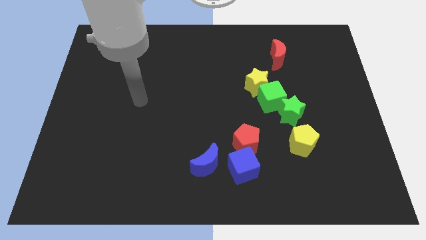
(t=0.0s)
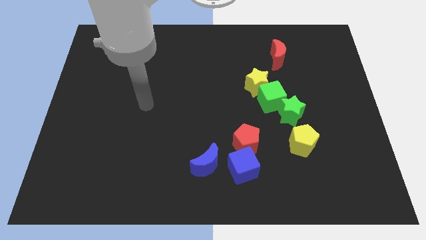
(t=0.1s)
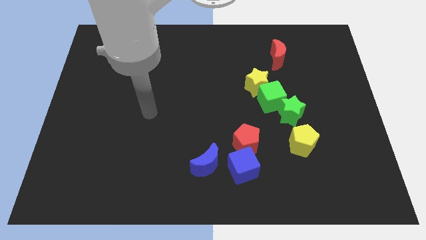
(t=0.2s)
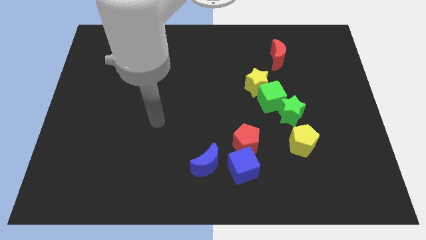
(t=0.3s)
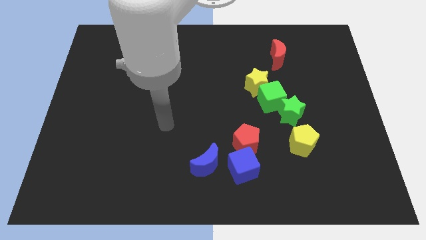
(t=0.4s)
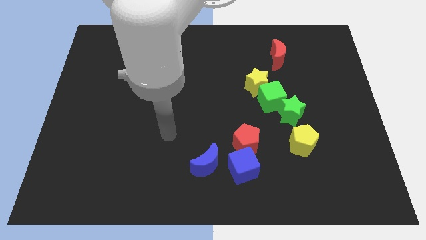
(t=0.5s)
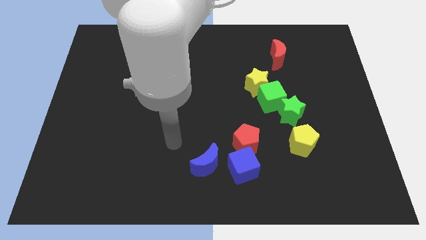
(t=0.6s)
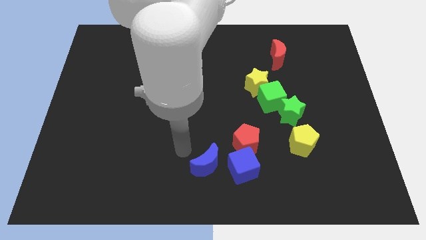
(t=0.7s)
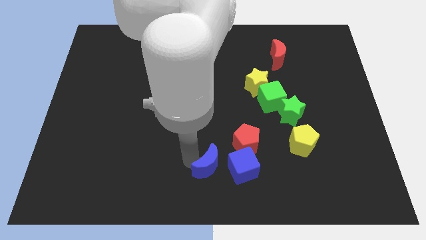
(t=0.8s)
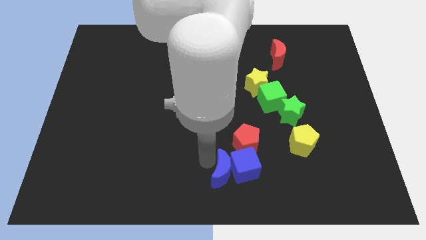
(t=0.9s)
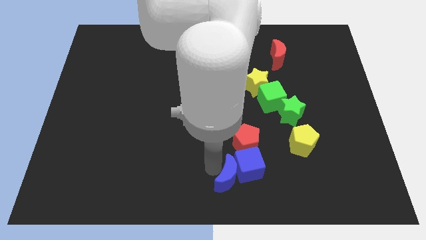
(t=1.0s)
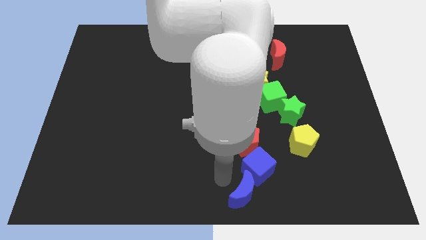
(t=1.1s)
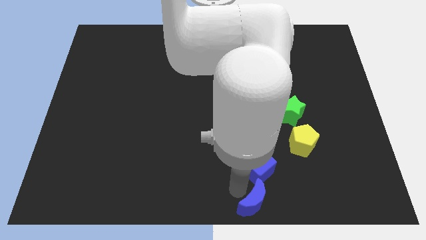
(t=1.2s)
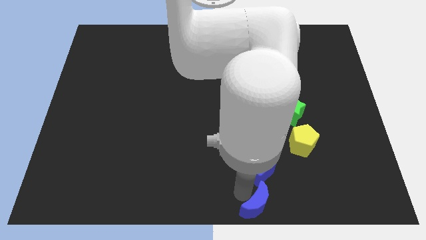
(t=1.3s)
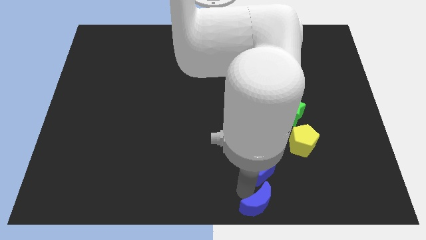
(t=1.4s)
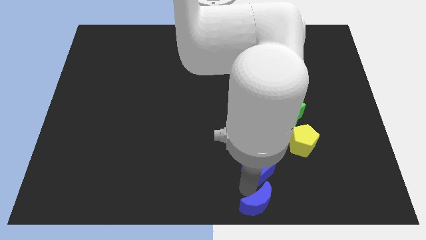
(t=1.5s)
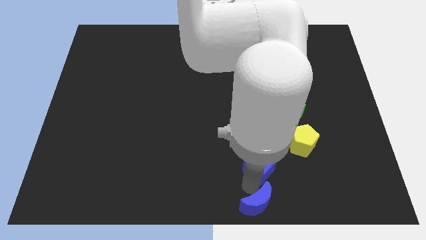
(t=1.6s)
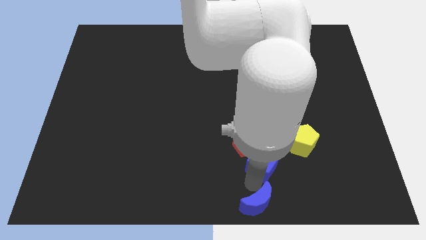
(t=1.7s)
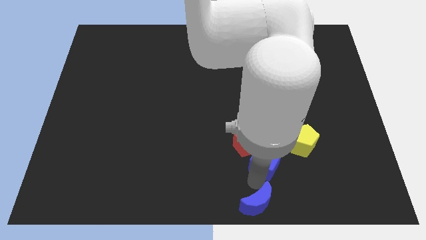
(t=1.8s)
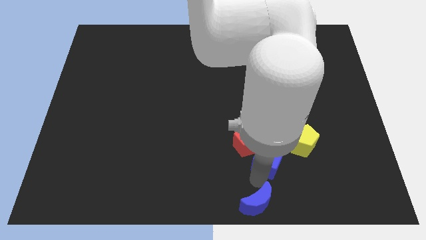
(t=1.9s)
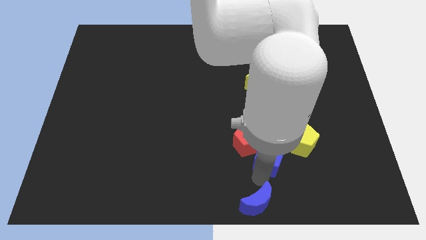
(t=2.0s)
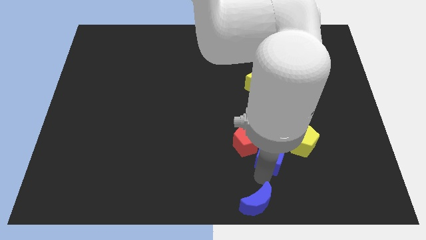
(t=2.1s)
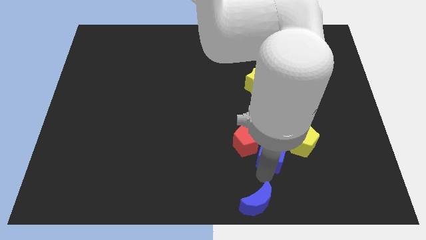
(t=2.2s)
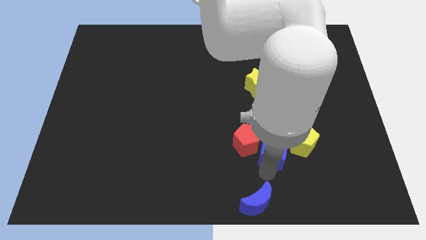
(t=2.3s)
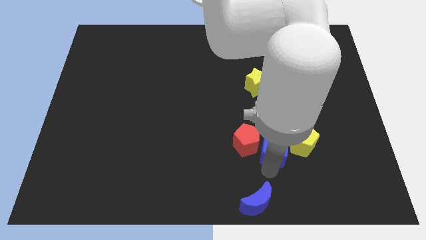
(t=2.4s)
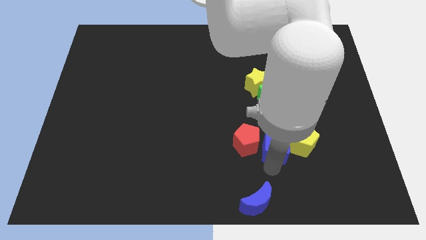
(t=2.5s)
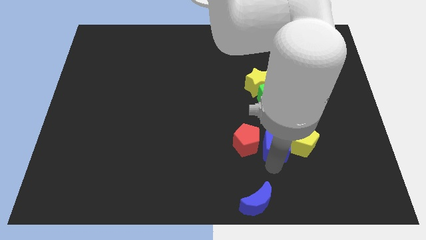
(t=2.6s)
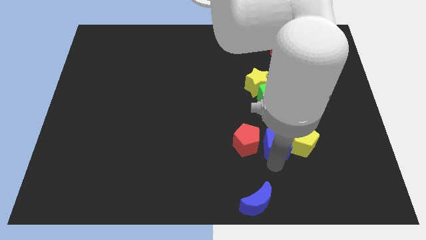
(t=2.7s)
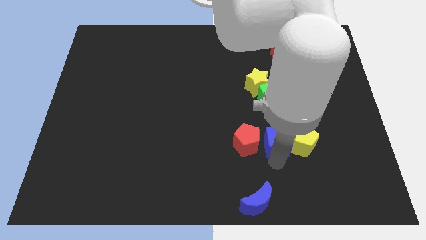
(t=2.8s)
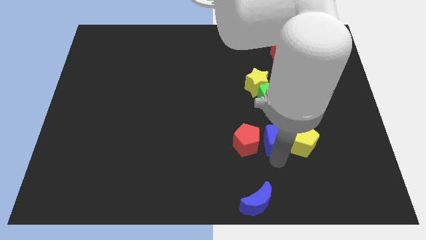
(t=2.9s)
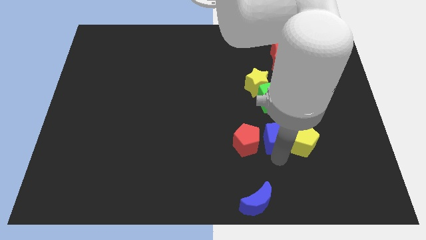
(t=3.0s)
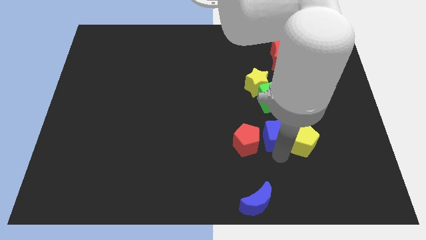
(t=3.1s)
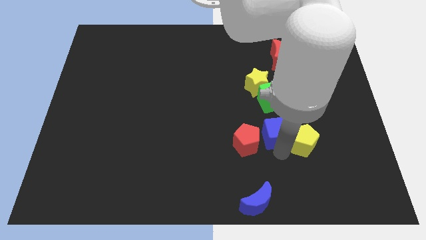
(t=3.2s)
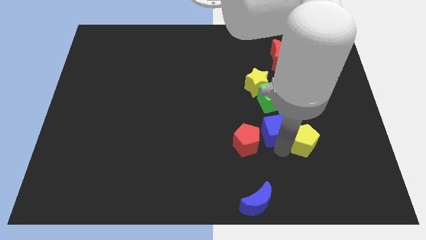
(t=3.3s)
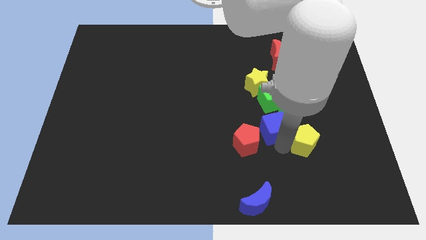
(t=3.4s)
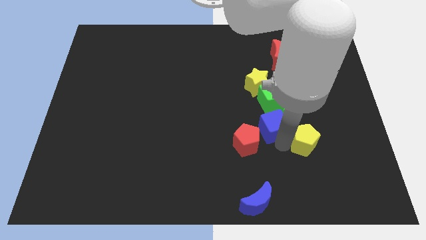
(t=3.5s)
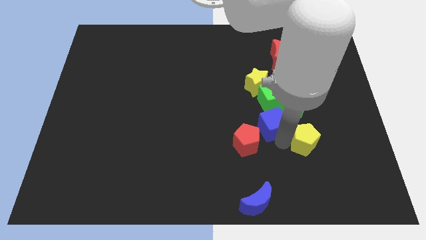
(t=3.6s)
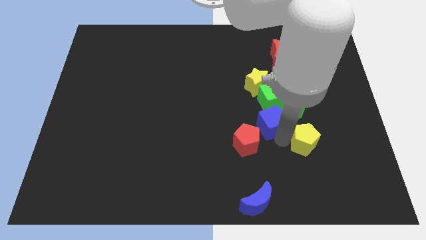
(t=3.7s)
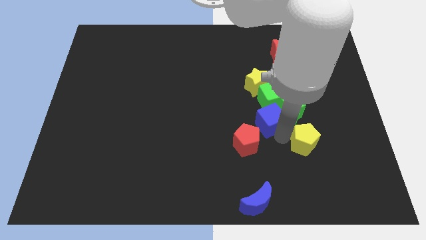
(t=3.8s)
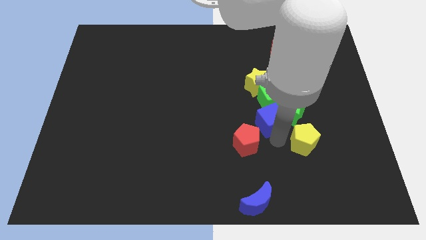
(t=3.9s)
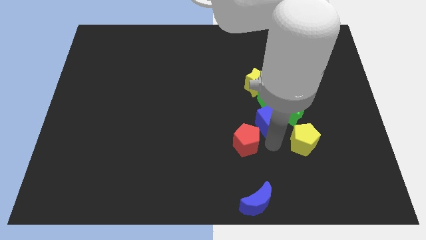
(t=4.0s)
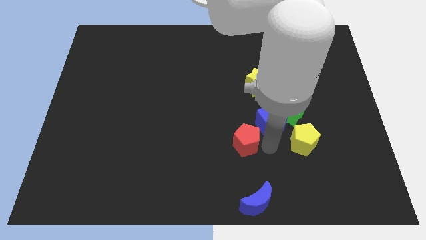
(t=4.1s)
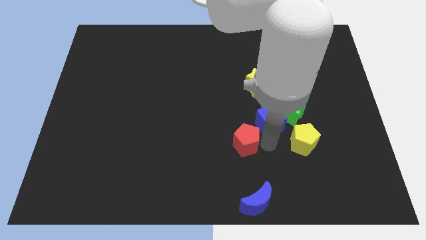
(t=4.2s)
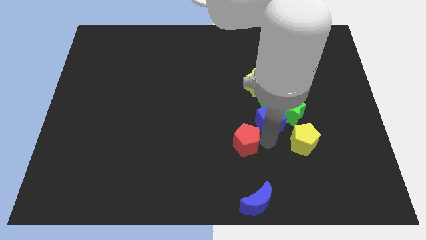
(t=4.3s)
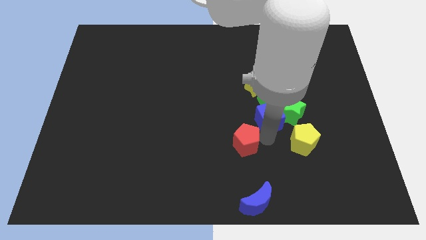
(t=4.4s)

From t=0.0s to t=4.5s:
slide the blue cube to the green cube

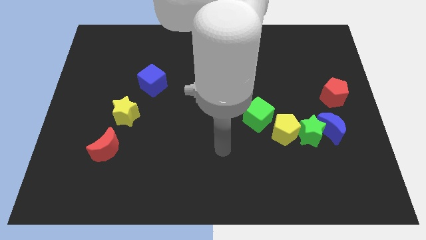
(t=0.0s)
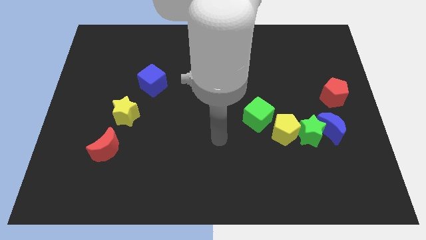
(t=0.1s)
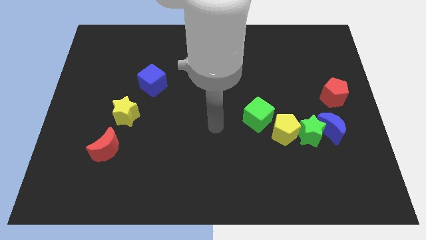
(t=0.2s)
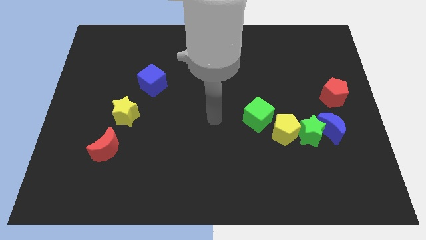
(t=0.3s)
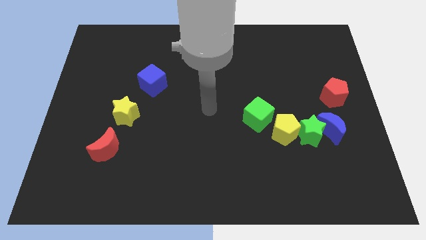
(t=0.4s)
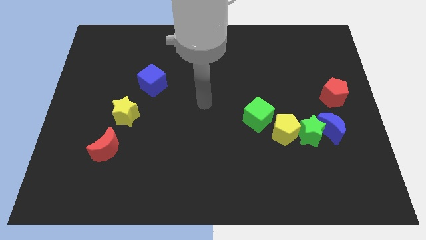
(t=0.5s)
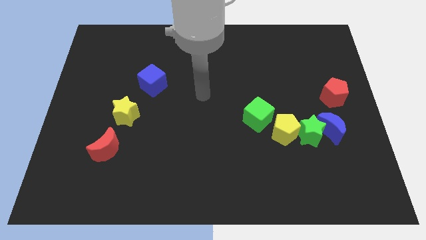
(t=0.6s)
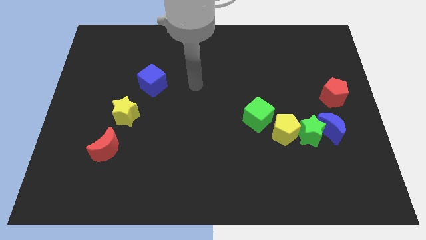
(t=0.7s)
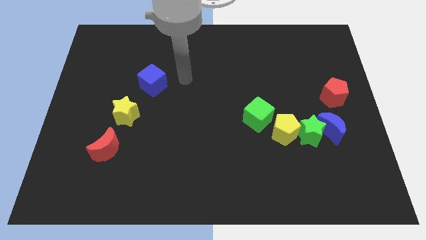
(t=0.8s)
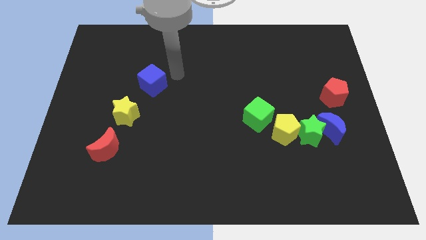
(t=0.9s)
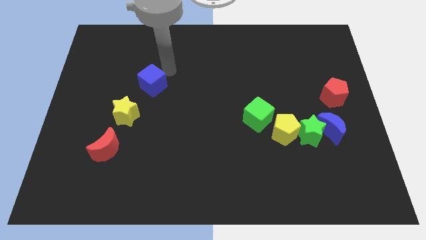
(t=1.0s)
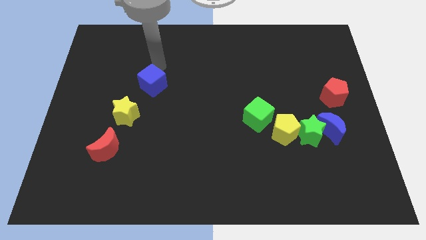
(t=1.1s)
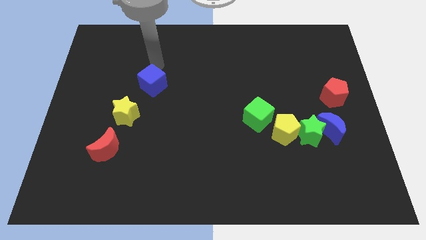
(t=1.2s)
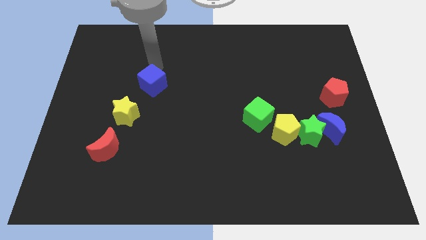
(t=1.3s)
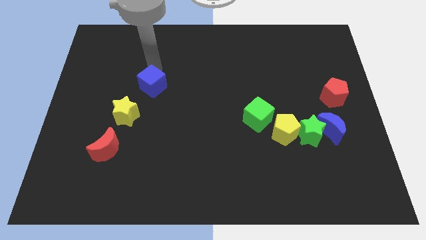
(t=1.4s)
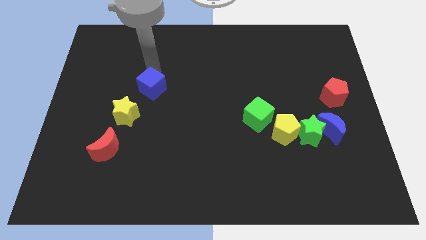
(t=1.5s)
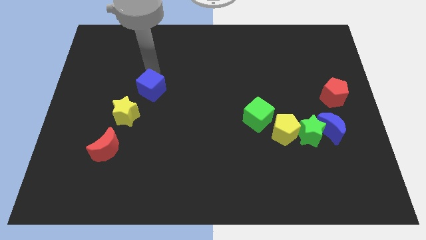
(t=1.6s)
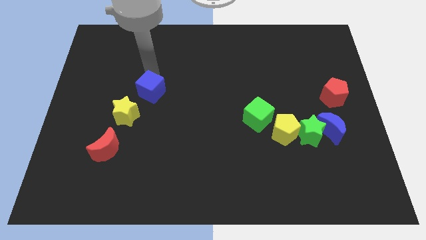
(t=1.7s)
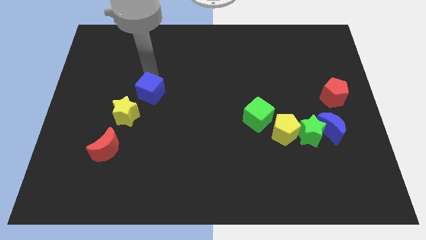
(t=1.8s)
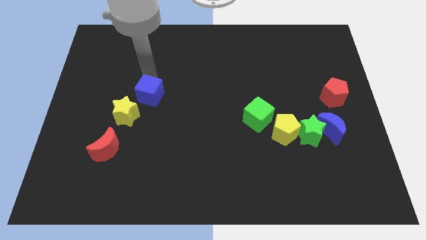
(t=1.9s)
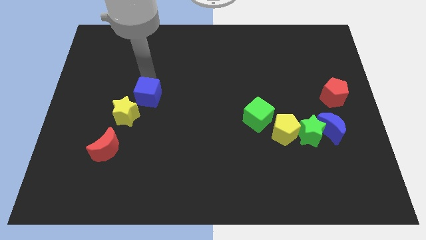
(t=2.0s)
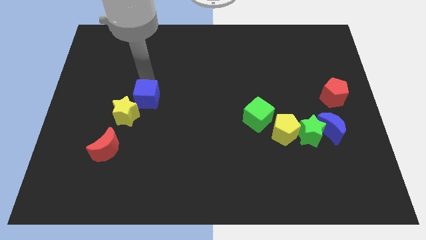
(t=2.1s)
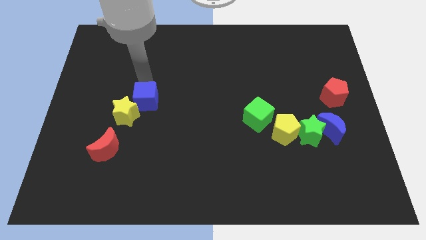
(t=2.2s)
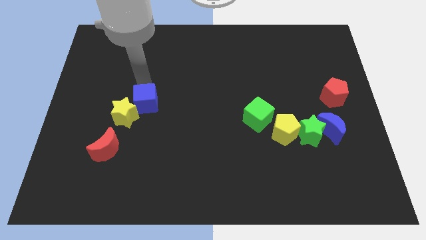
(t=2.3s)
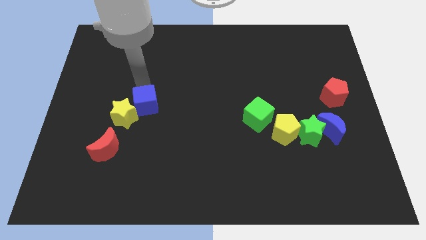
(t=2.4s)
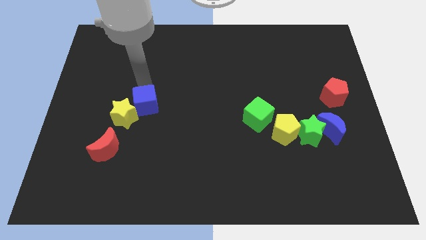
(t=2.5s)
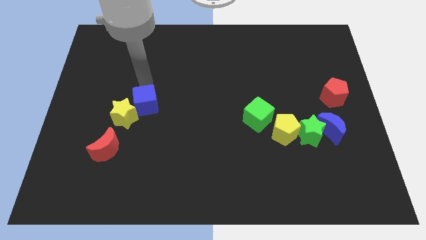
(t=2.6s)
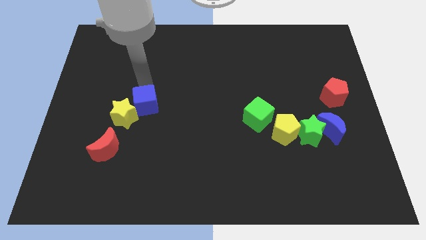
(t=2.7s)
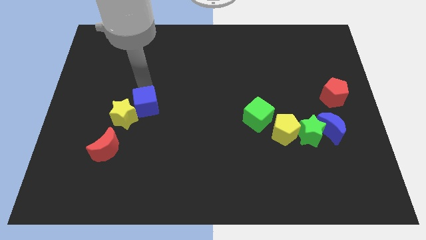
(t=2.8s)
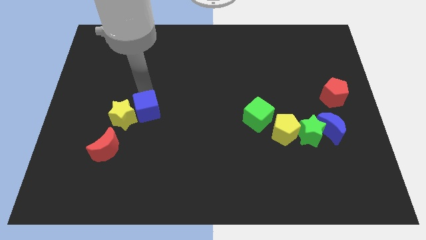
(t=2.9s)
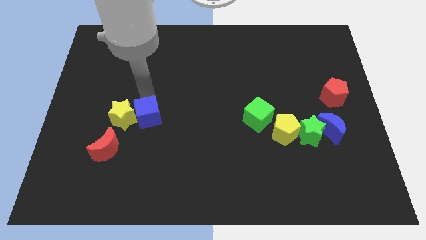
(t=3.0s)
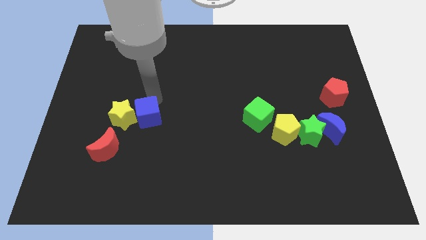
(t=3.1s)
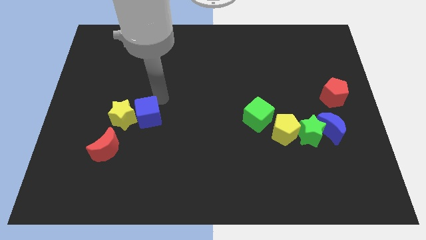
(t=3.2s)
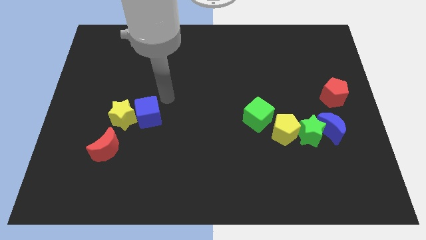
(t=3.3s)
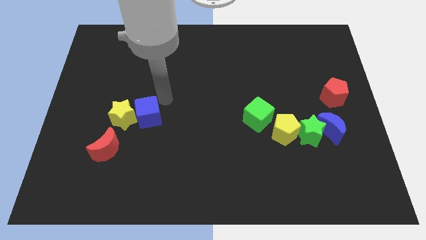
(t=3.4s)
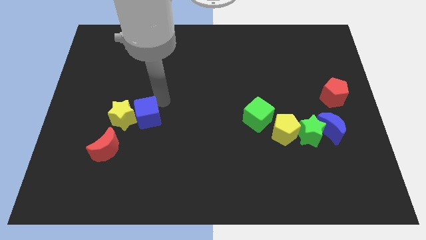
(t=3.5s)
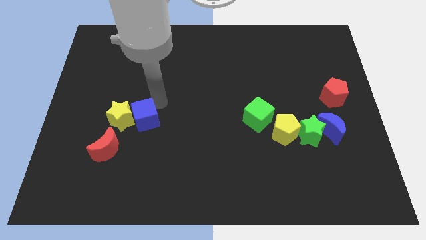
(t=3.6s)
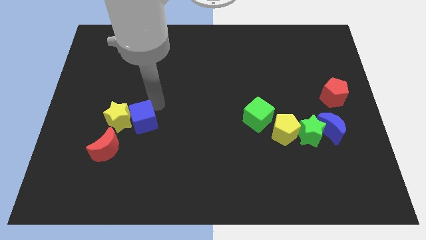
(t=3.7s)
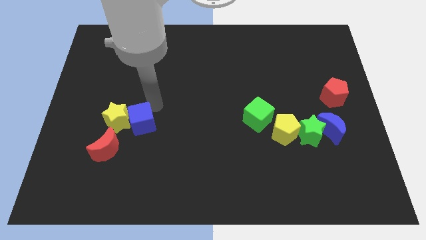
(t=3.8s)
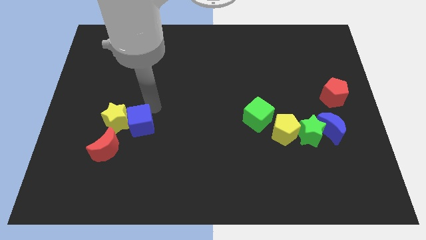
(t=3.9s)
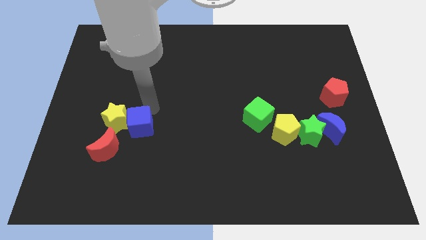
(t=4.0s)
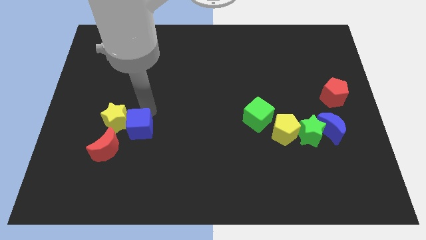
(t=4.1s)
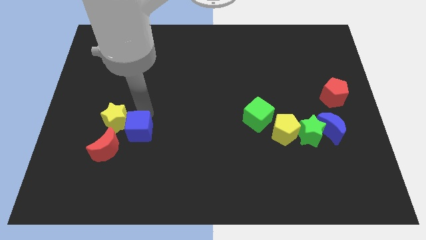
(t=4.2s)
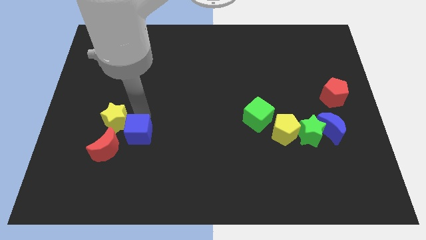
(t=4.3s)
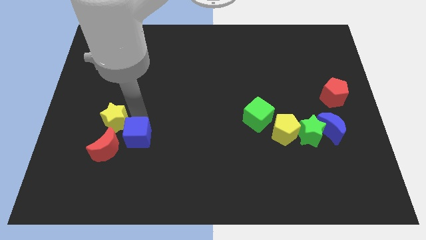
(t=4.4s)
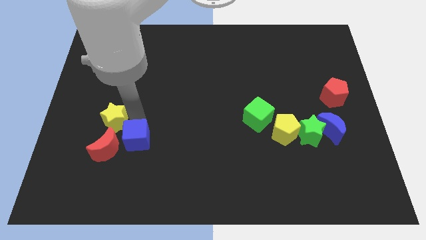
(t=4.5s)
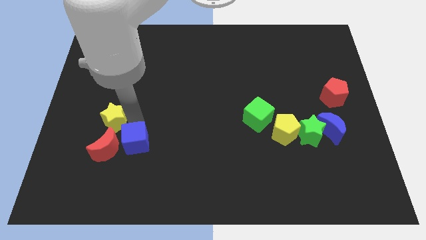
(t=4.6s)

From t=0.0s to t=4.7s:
put the blue cube close to the red moon
